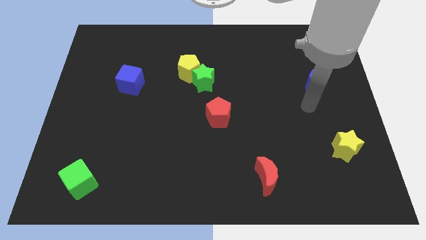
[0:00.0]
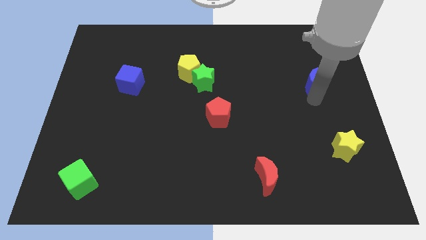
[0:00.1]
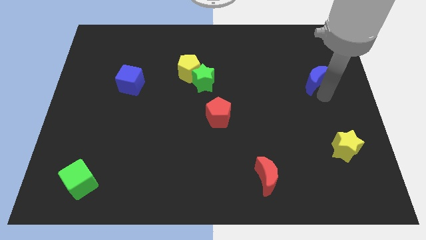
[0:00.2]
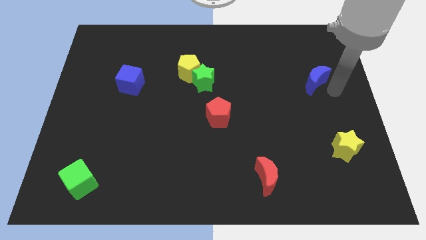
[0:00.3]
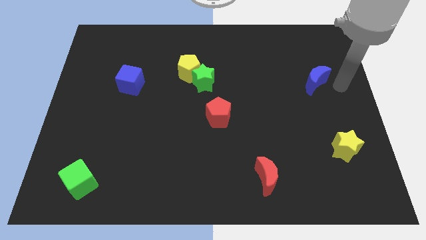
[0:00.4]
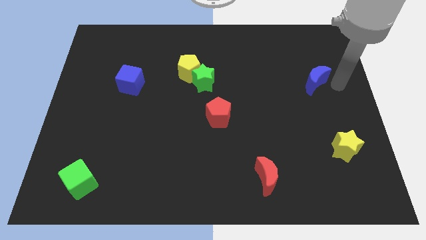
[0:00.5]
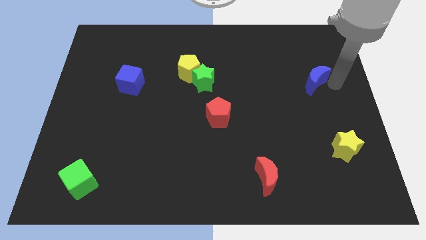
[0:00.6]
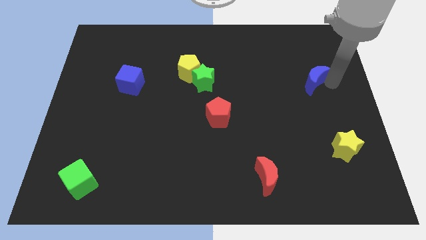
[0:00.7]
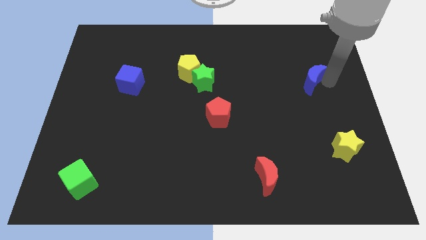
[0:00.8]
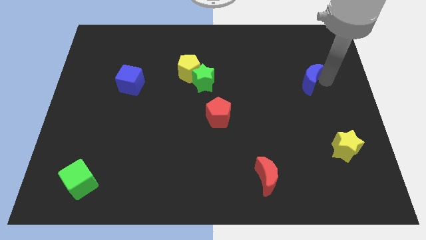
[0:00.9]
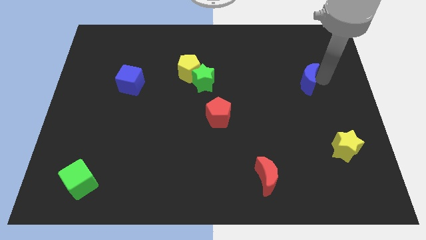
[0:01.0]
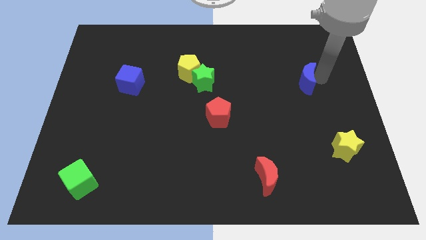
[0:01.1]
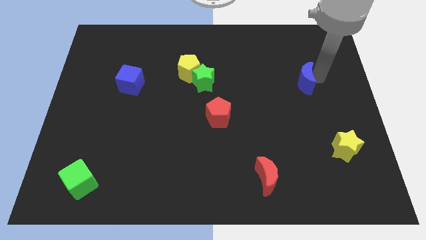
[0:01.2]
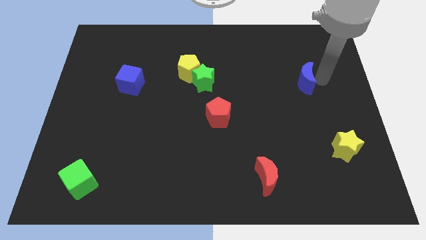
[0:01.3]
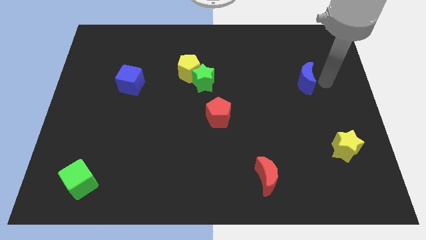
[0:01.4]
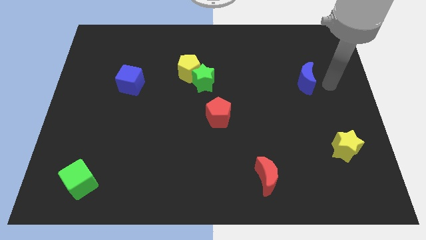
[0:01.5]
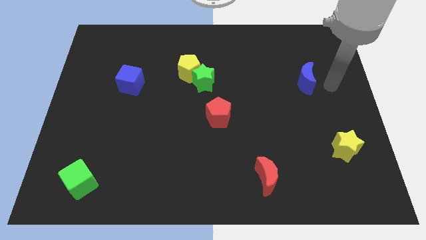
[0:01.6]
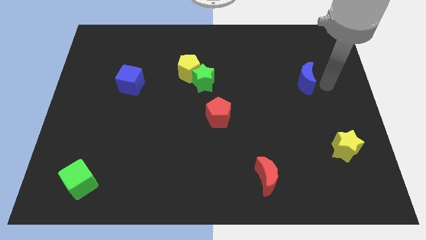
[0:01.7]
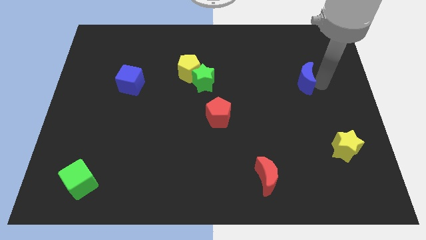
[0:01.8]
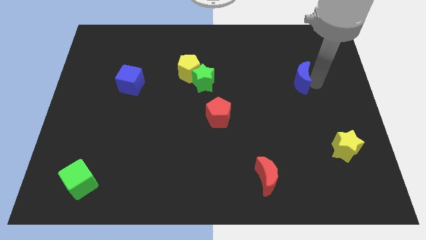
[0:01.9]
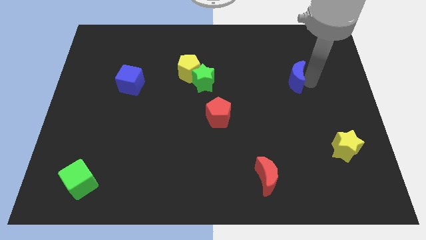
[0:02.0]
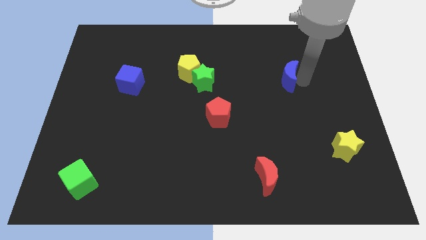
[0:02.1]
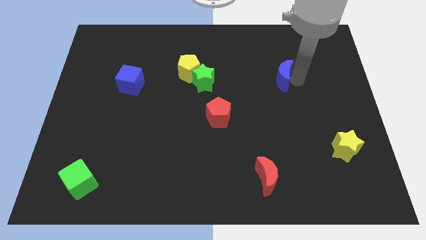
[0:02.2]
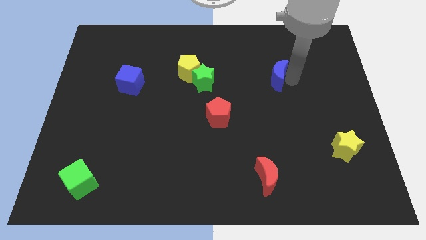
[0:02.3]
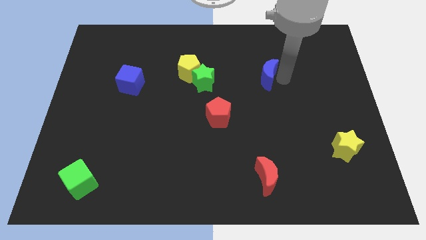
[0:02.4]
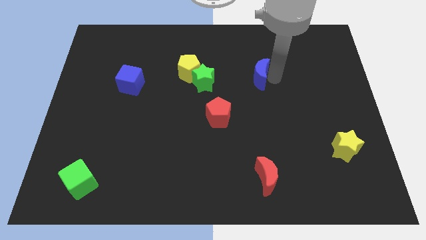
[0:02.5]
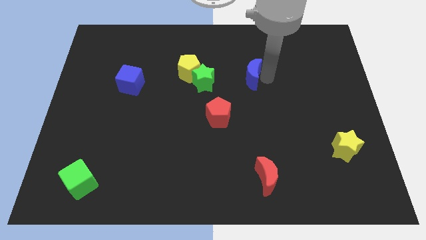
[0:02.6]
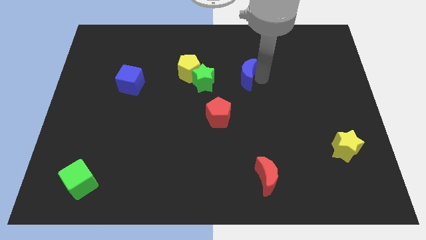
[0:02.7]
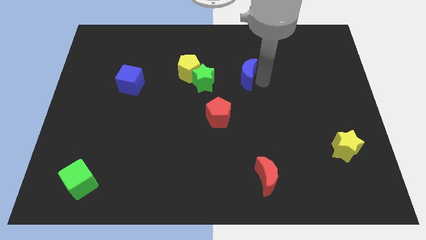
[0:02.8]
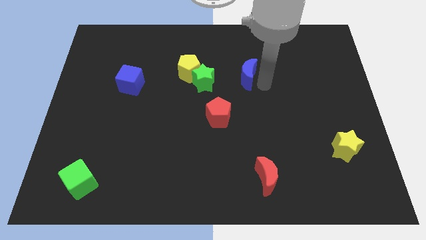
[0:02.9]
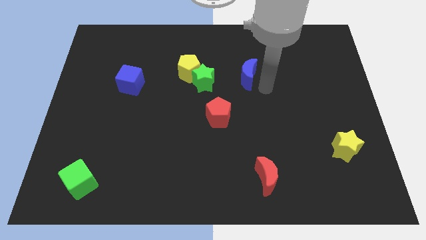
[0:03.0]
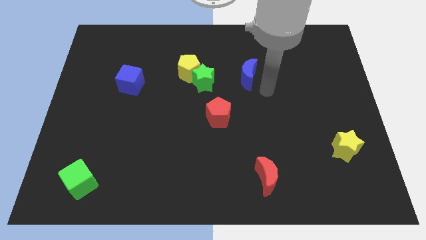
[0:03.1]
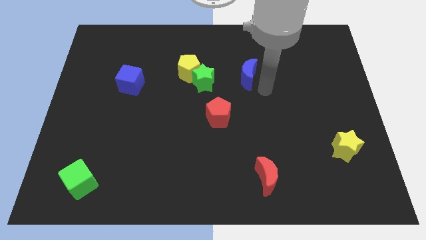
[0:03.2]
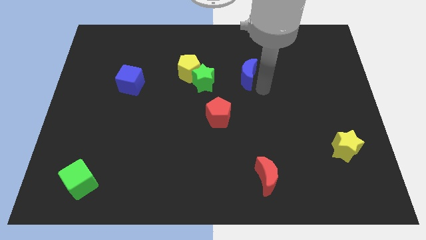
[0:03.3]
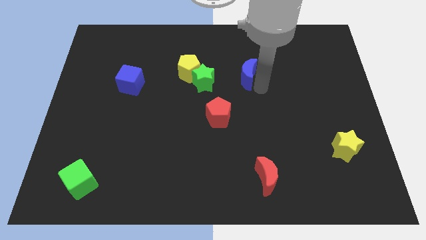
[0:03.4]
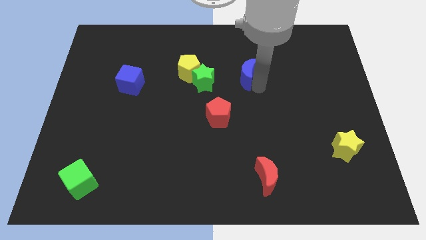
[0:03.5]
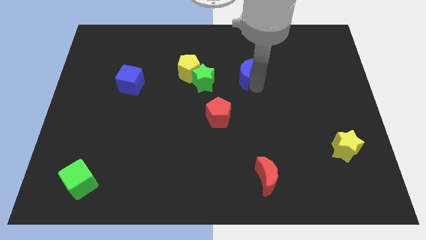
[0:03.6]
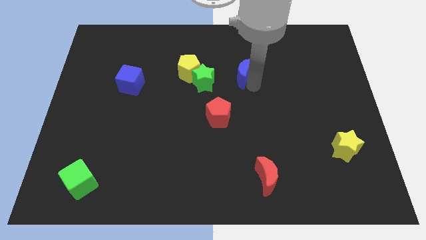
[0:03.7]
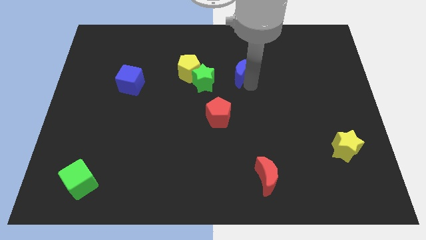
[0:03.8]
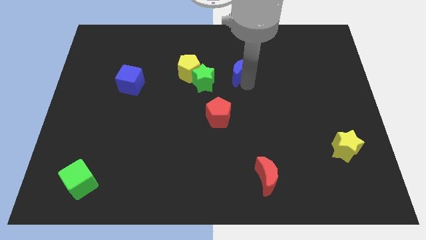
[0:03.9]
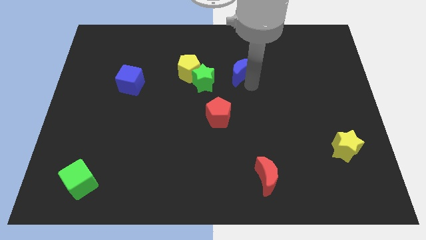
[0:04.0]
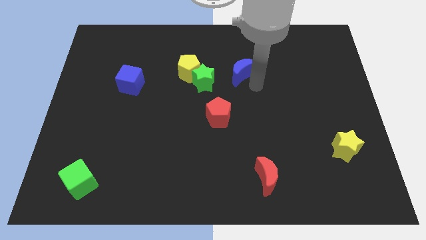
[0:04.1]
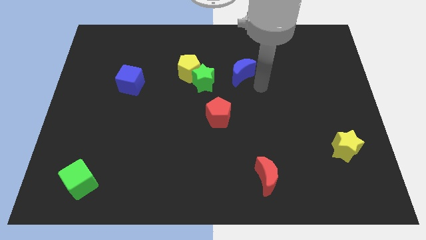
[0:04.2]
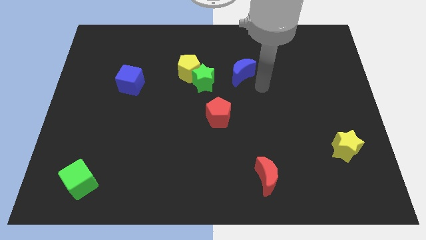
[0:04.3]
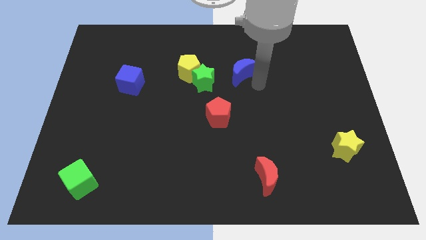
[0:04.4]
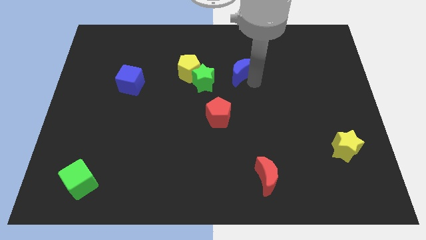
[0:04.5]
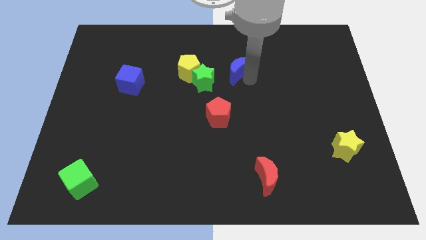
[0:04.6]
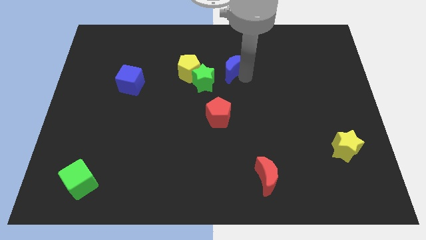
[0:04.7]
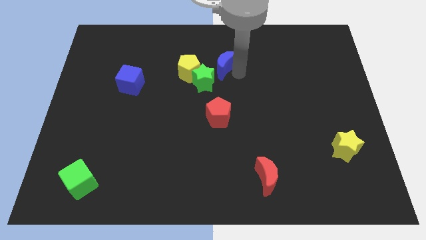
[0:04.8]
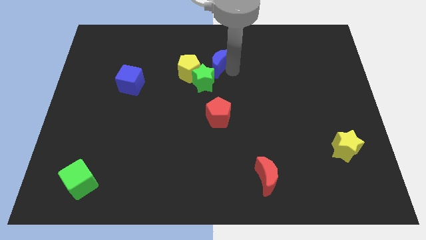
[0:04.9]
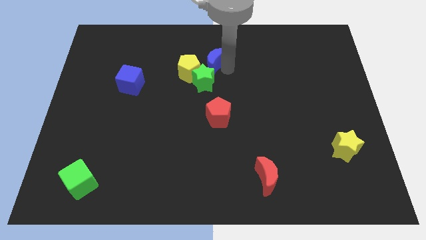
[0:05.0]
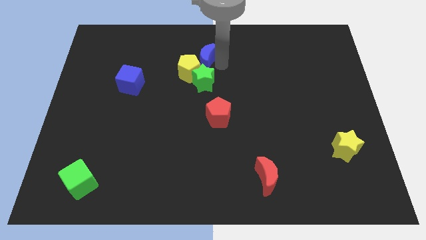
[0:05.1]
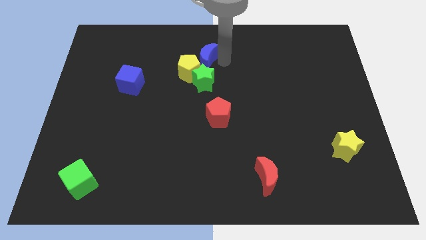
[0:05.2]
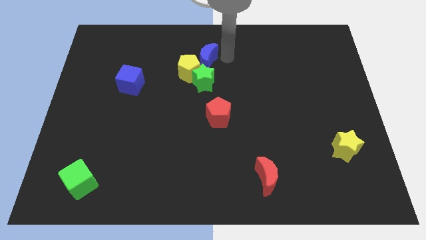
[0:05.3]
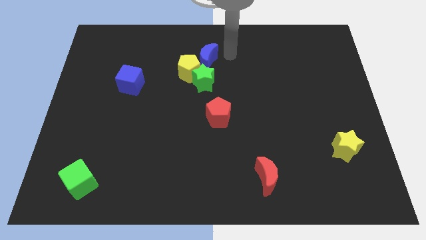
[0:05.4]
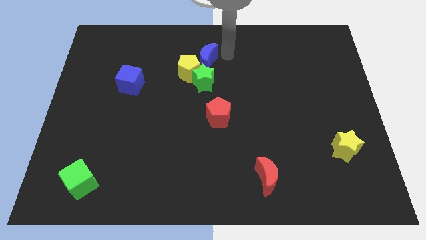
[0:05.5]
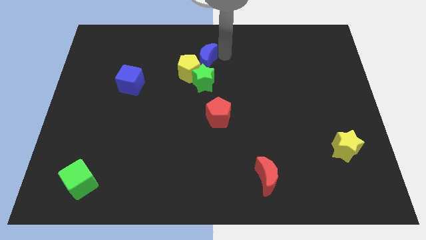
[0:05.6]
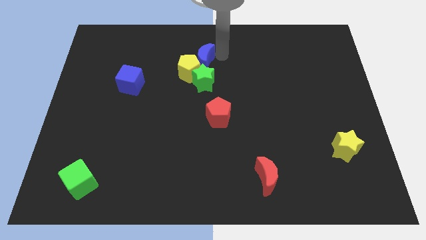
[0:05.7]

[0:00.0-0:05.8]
put the blue moon to the top left of the green star

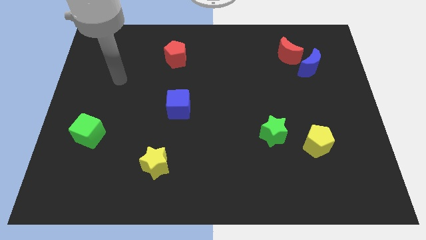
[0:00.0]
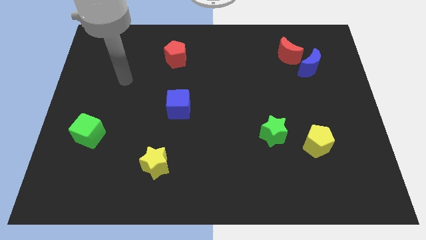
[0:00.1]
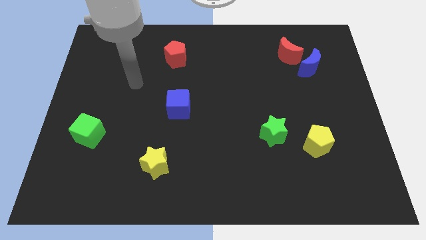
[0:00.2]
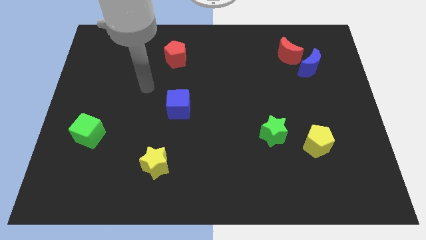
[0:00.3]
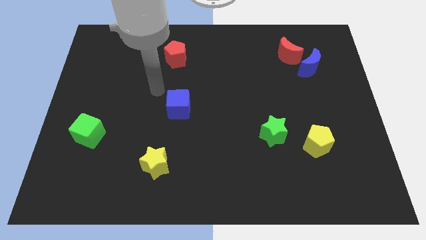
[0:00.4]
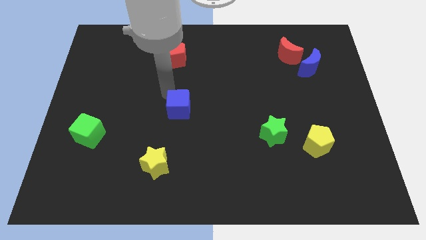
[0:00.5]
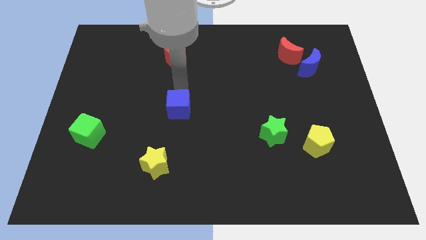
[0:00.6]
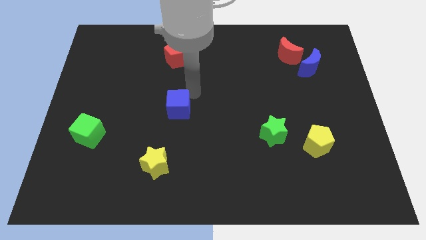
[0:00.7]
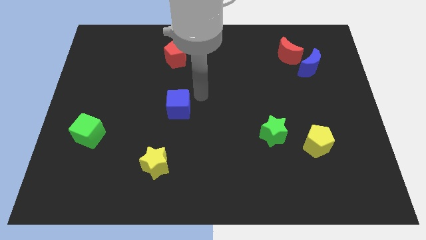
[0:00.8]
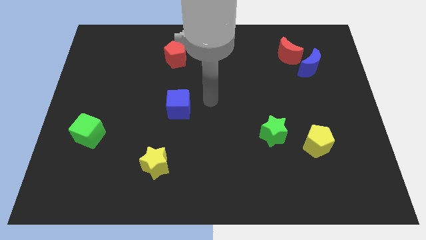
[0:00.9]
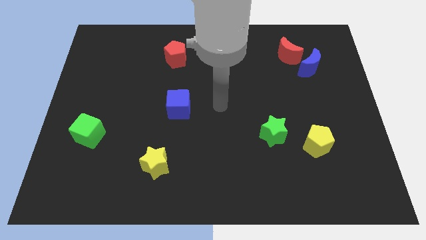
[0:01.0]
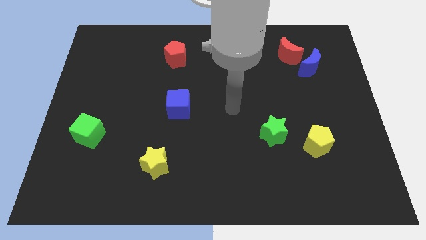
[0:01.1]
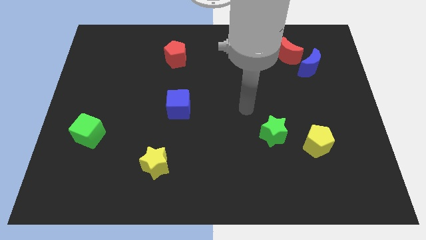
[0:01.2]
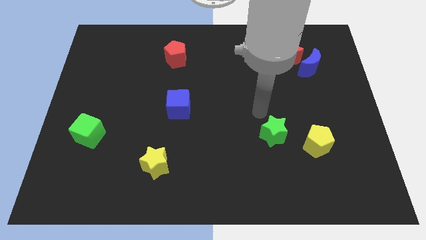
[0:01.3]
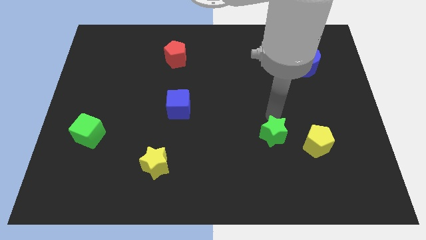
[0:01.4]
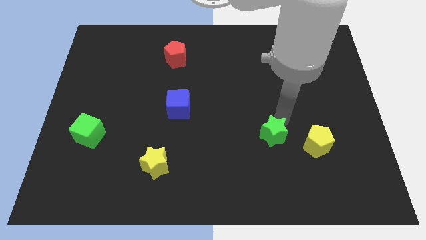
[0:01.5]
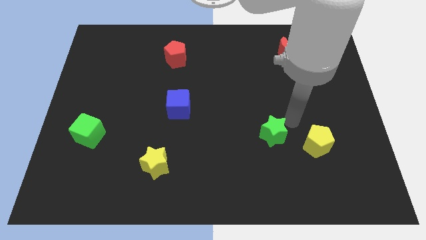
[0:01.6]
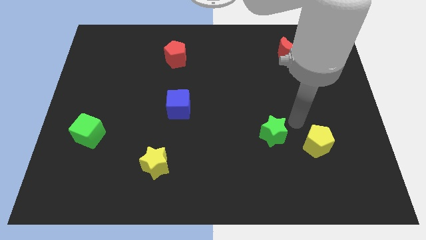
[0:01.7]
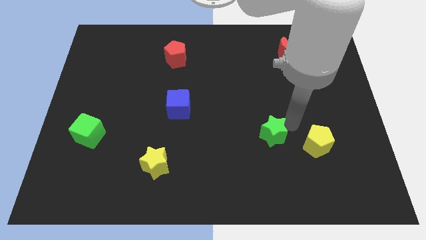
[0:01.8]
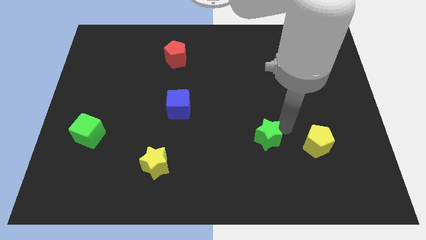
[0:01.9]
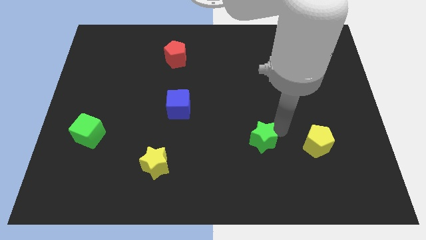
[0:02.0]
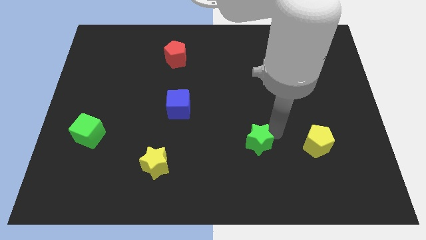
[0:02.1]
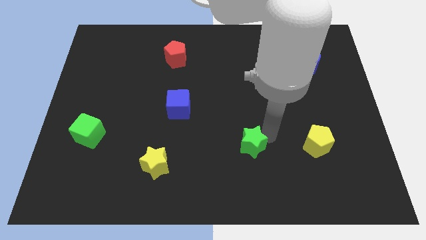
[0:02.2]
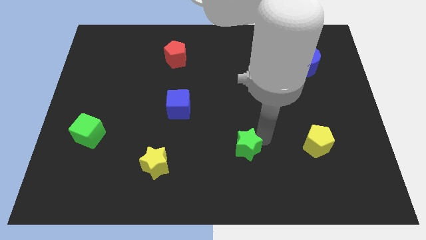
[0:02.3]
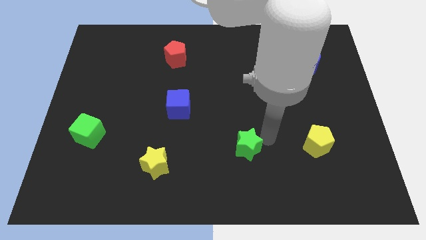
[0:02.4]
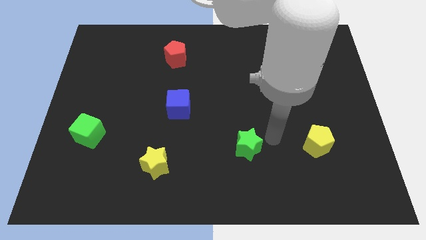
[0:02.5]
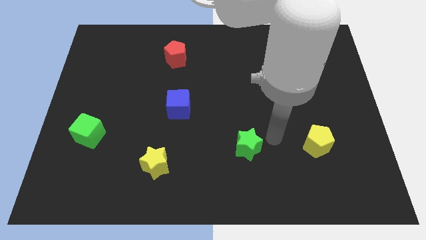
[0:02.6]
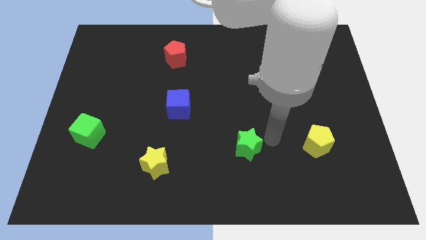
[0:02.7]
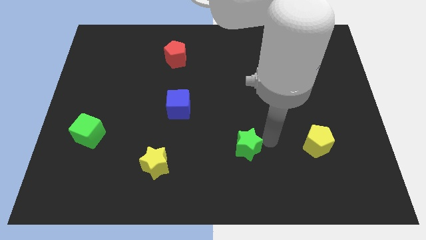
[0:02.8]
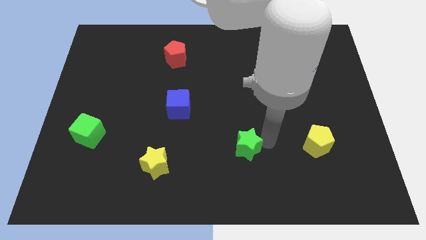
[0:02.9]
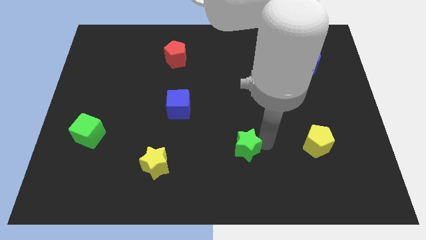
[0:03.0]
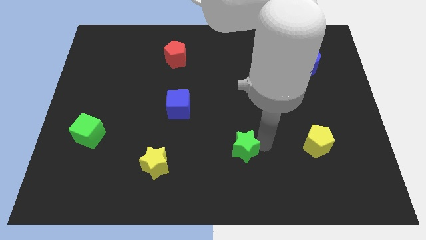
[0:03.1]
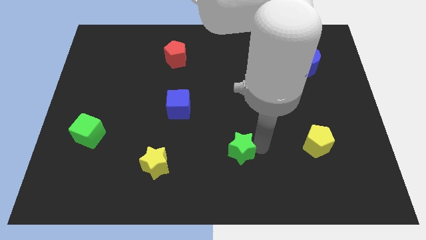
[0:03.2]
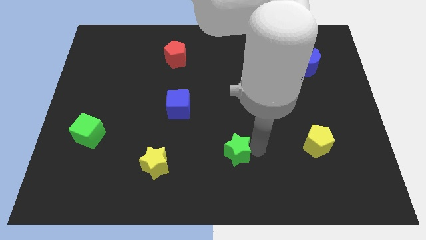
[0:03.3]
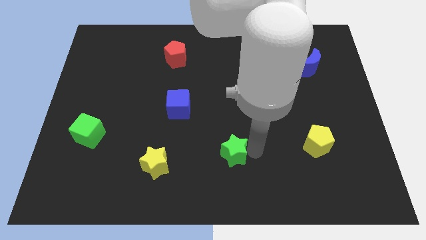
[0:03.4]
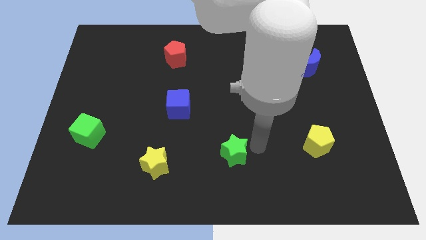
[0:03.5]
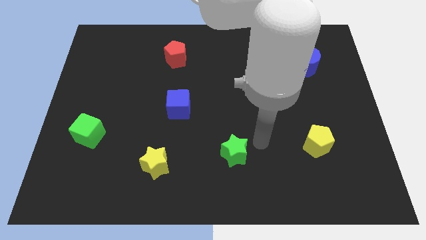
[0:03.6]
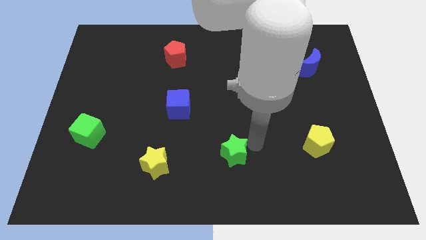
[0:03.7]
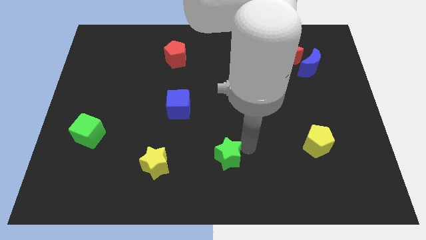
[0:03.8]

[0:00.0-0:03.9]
move the green star to the right of the yellow star
